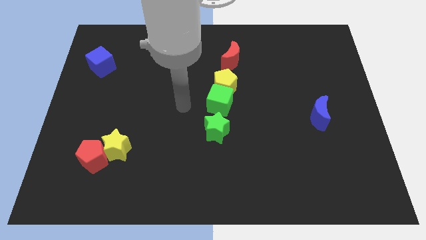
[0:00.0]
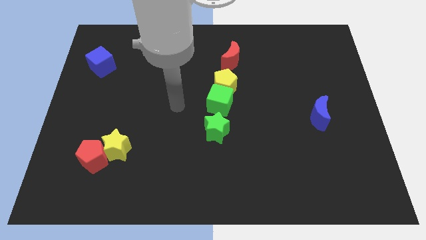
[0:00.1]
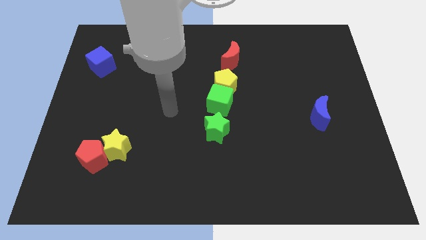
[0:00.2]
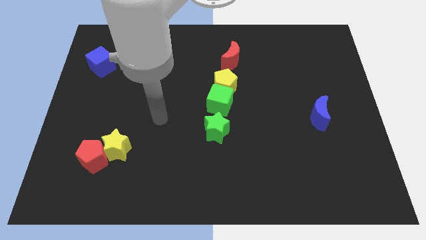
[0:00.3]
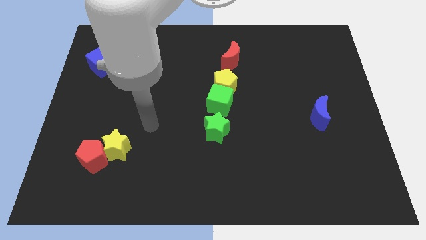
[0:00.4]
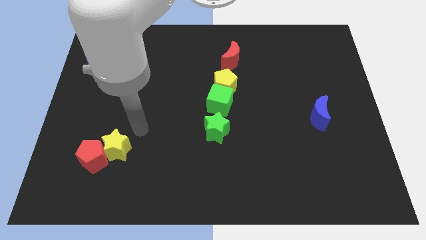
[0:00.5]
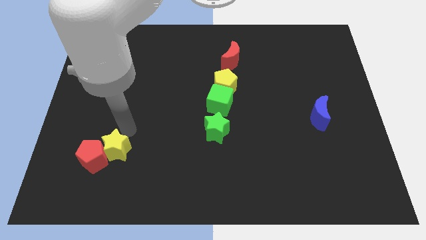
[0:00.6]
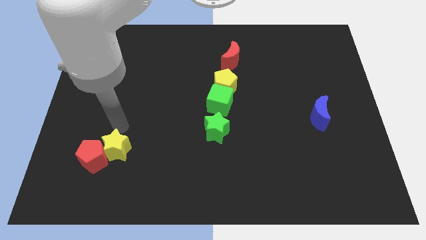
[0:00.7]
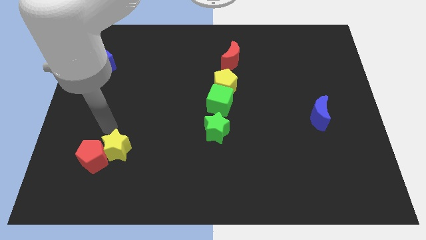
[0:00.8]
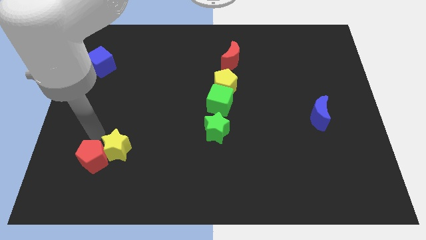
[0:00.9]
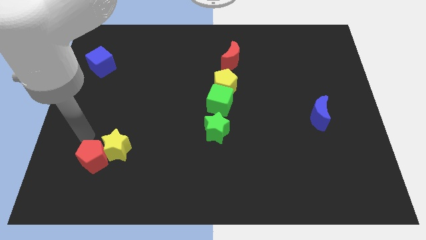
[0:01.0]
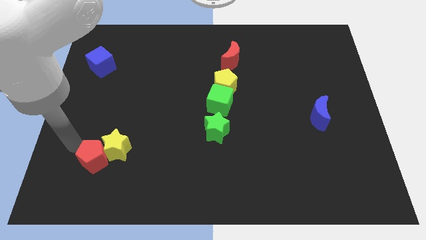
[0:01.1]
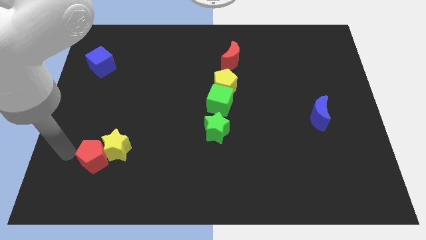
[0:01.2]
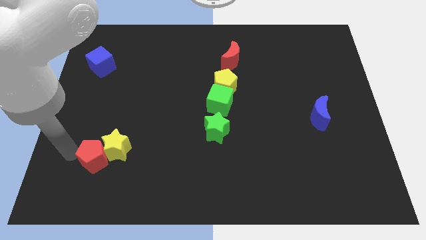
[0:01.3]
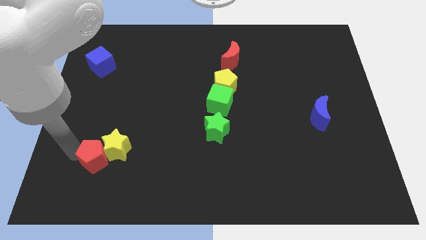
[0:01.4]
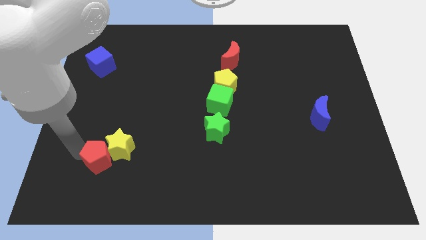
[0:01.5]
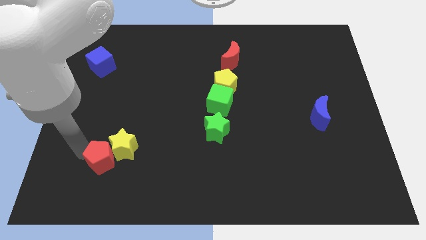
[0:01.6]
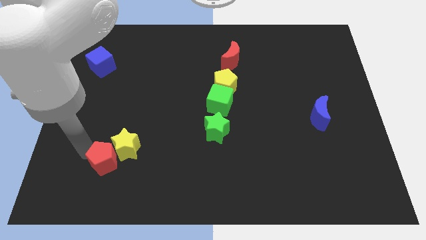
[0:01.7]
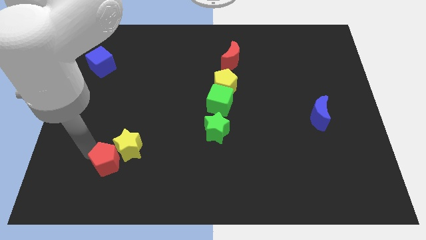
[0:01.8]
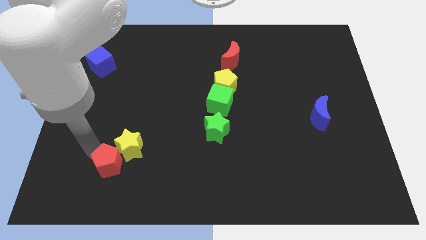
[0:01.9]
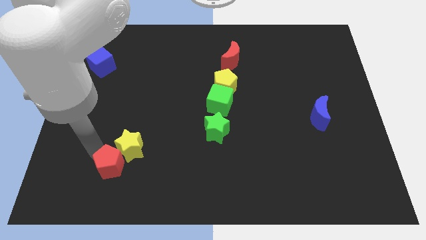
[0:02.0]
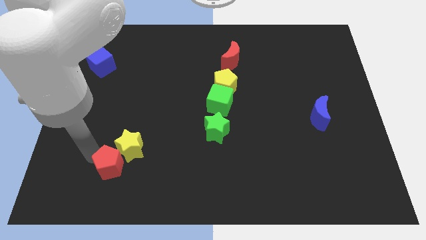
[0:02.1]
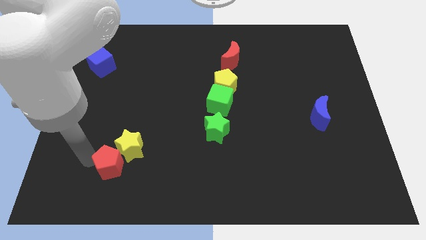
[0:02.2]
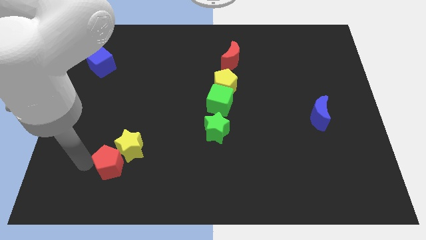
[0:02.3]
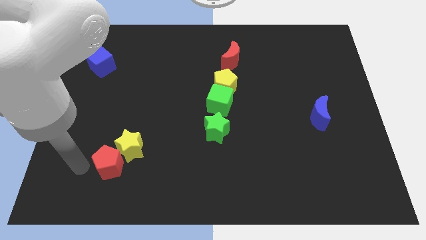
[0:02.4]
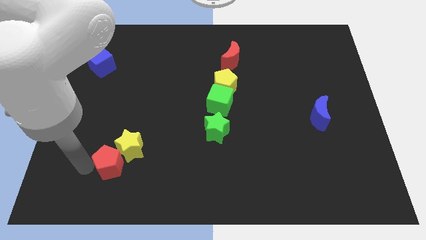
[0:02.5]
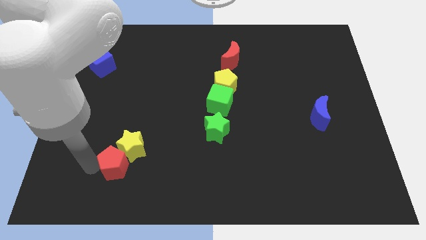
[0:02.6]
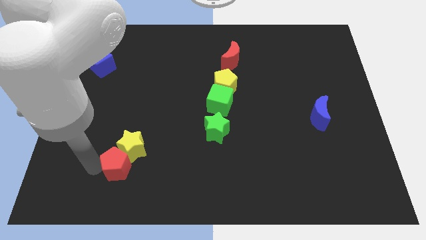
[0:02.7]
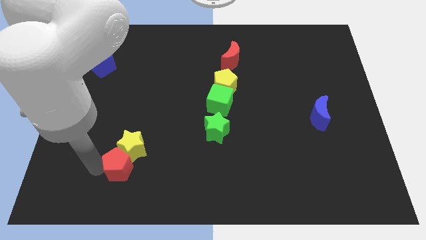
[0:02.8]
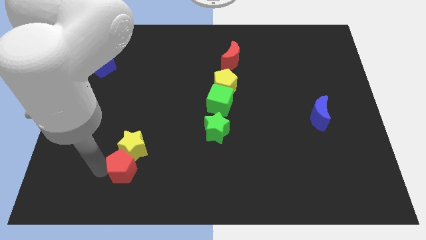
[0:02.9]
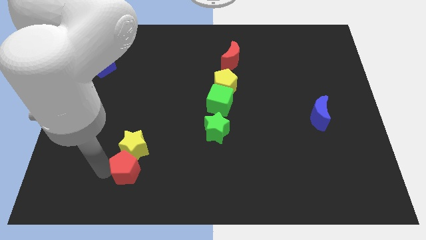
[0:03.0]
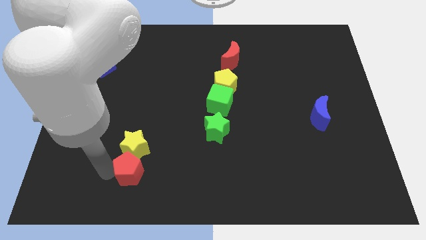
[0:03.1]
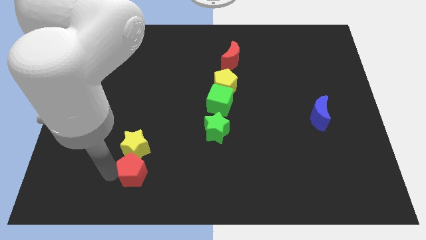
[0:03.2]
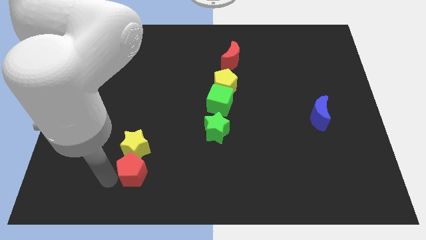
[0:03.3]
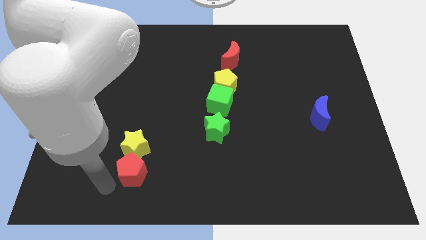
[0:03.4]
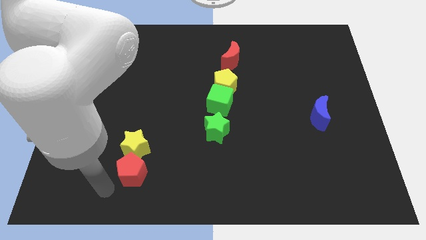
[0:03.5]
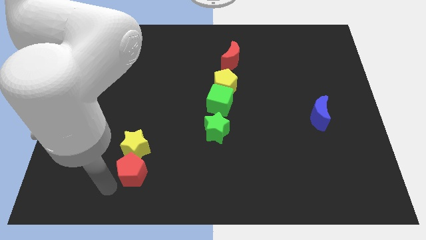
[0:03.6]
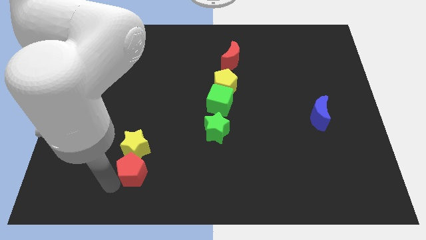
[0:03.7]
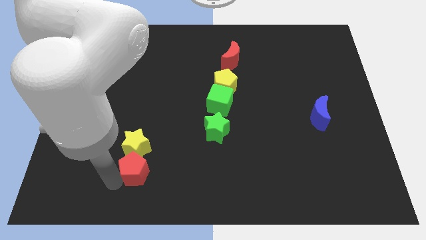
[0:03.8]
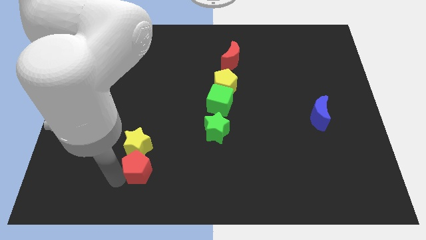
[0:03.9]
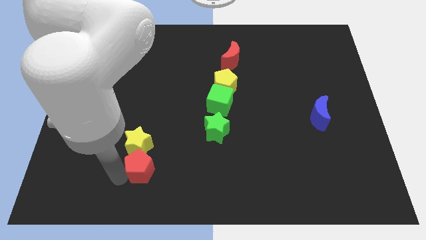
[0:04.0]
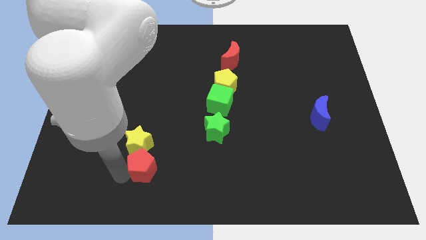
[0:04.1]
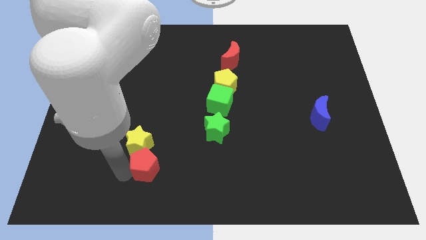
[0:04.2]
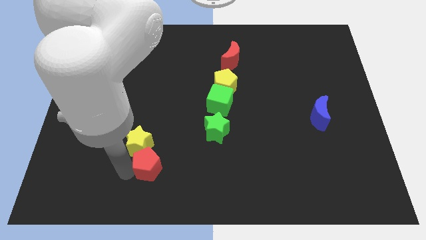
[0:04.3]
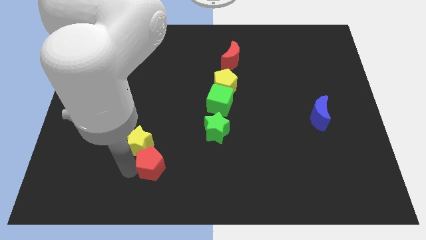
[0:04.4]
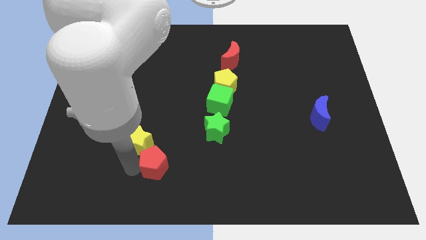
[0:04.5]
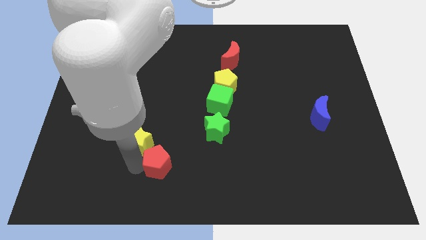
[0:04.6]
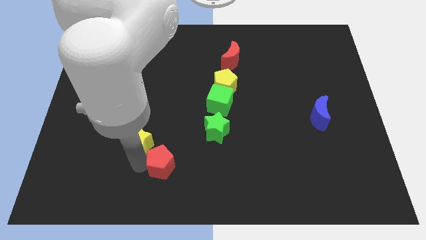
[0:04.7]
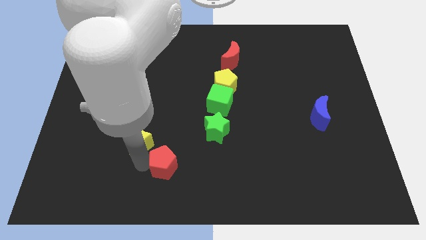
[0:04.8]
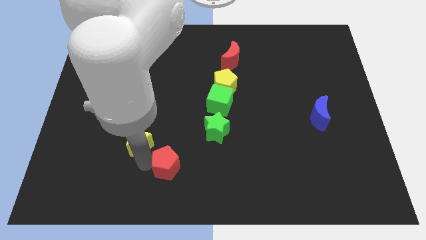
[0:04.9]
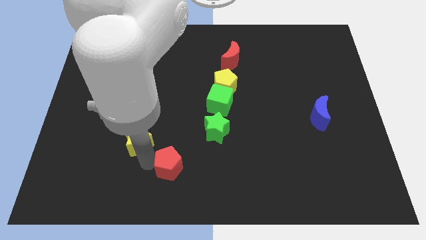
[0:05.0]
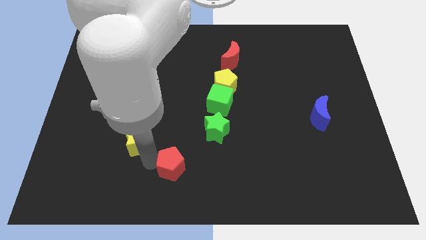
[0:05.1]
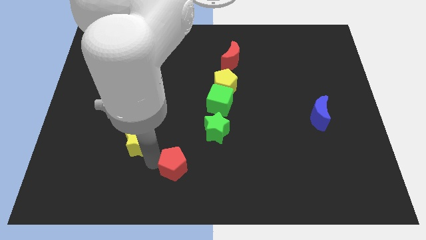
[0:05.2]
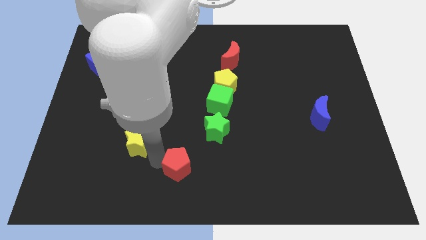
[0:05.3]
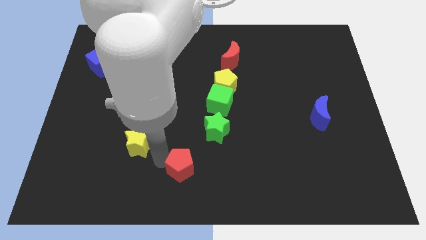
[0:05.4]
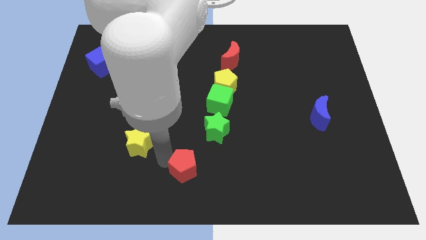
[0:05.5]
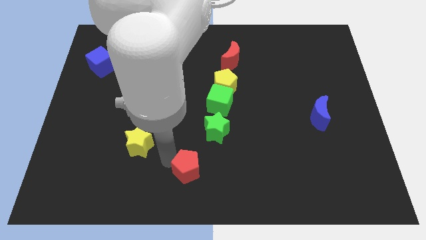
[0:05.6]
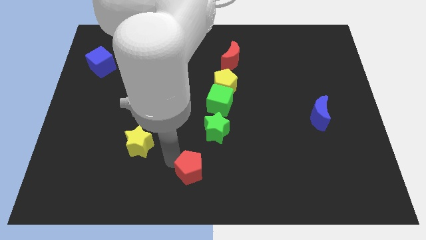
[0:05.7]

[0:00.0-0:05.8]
move the red pentagon right

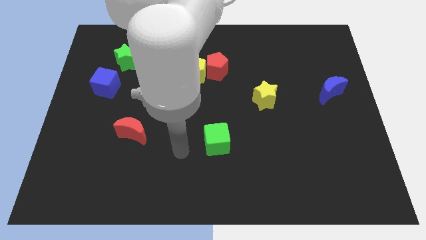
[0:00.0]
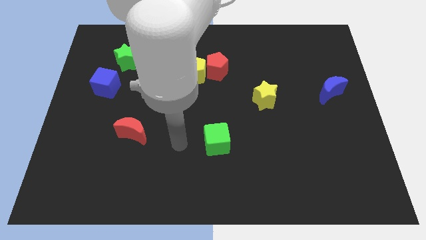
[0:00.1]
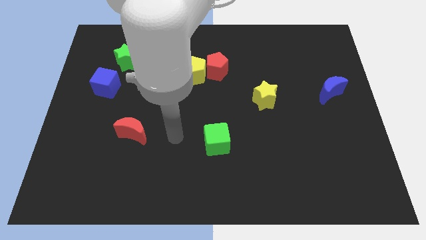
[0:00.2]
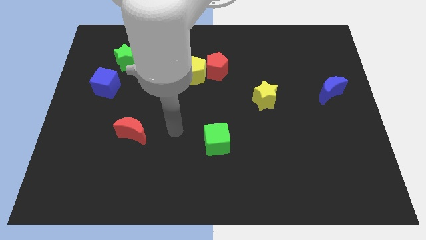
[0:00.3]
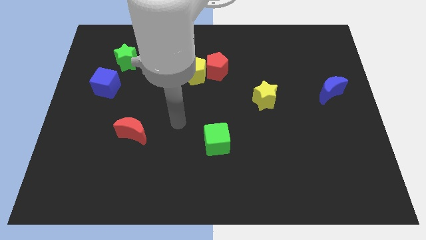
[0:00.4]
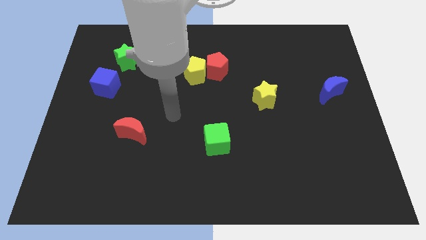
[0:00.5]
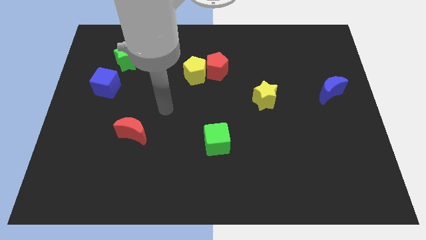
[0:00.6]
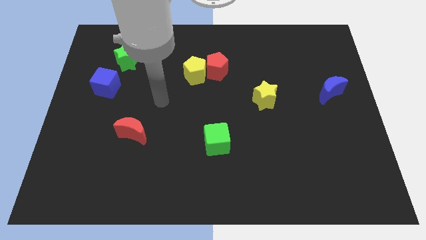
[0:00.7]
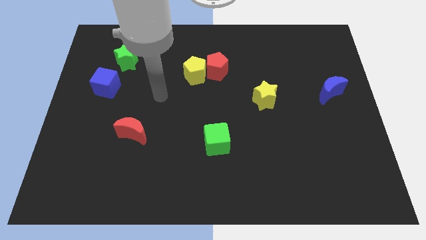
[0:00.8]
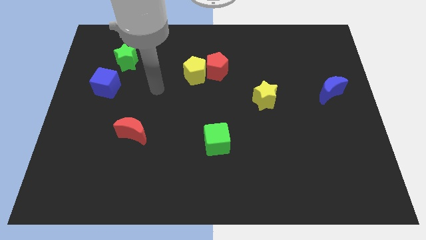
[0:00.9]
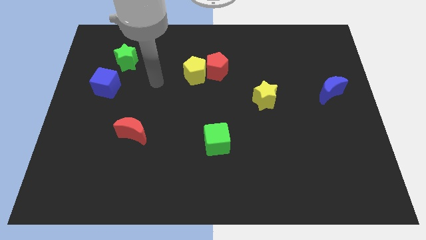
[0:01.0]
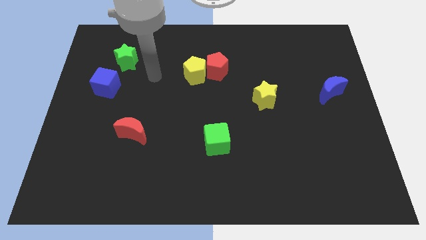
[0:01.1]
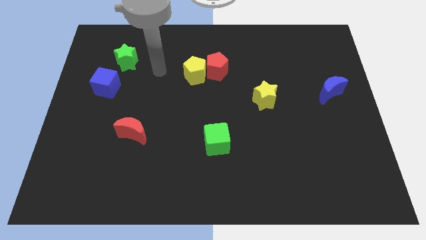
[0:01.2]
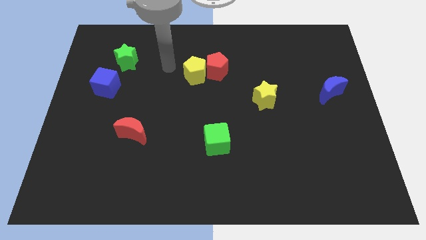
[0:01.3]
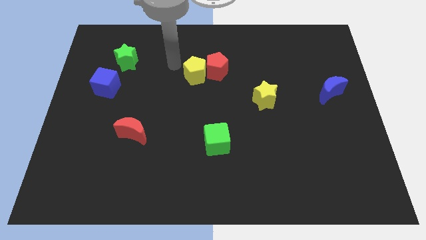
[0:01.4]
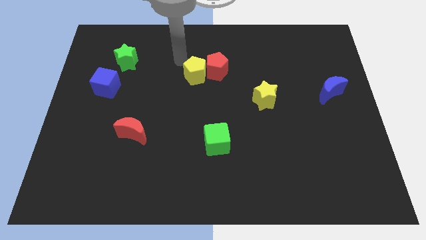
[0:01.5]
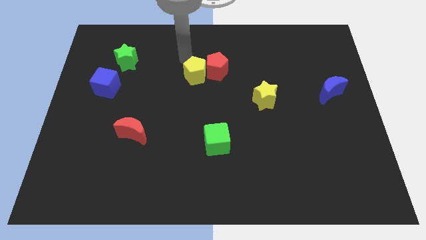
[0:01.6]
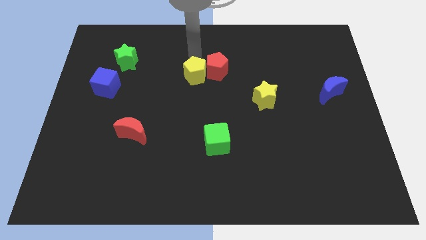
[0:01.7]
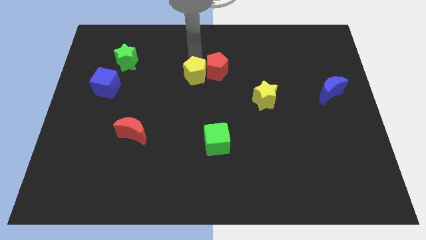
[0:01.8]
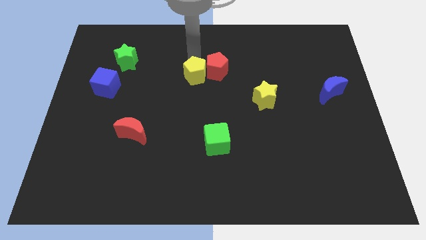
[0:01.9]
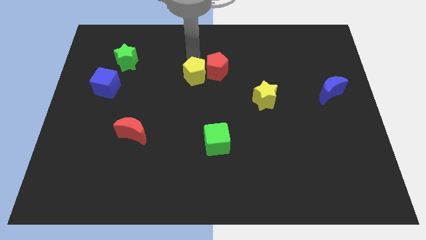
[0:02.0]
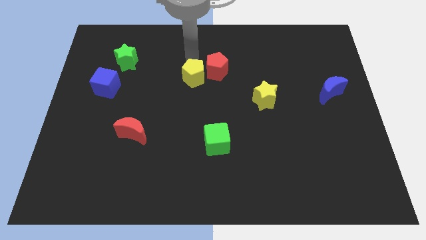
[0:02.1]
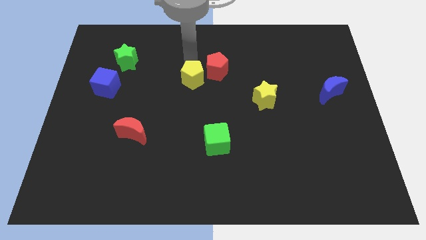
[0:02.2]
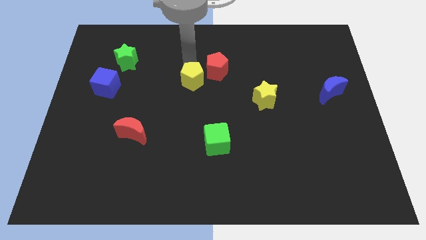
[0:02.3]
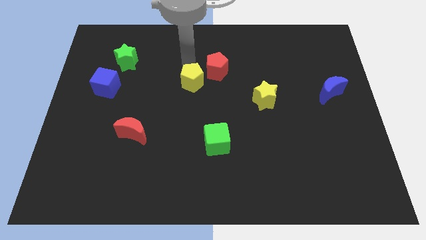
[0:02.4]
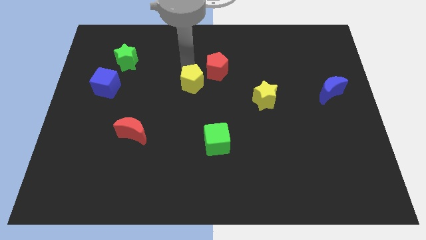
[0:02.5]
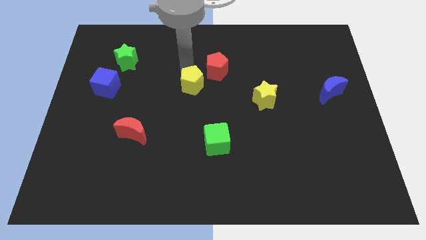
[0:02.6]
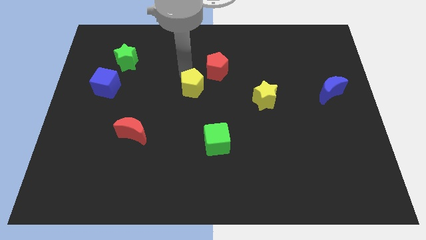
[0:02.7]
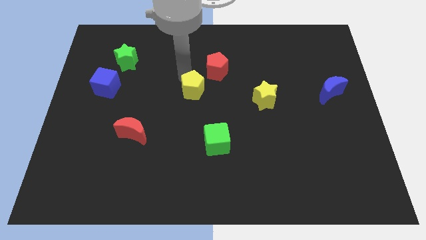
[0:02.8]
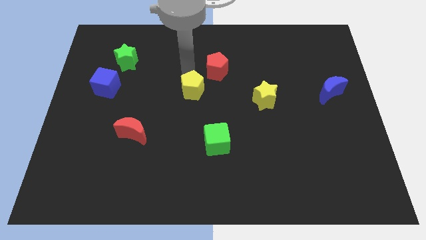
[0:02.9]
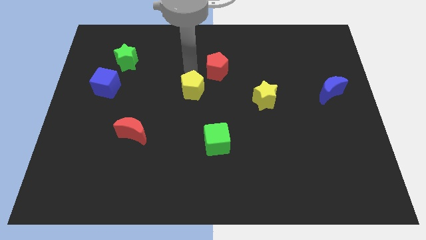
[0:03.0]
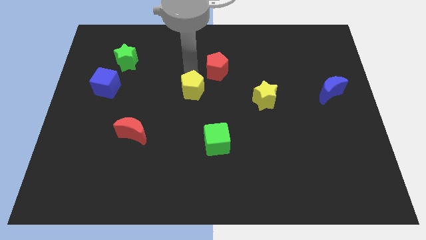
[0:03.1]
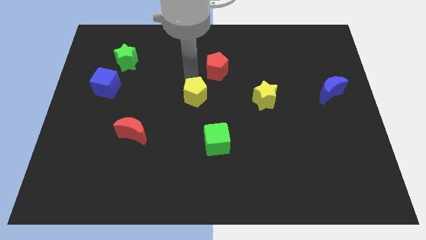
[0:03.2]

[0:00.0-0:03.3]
move the yellow pentagon downwards a bit
